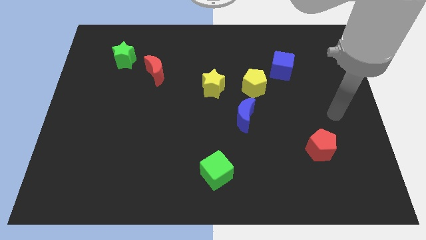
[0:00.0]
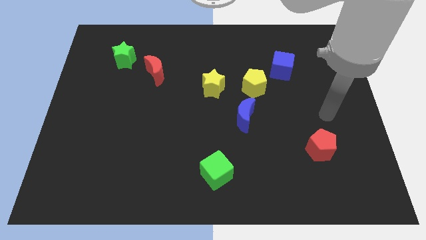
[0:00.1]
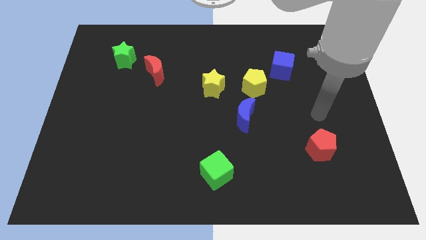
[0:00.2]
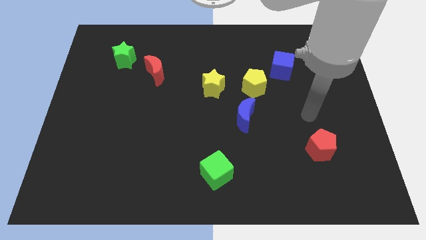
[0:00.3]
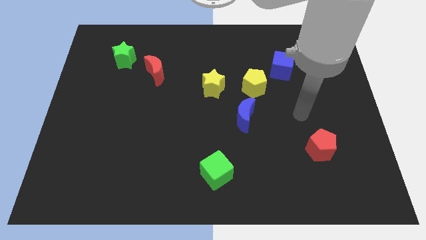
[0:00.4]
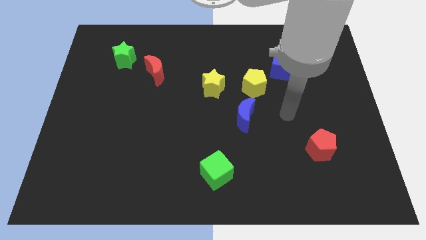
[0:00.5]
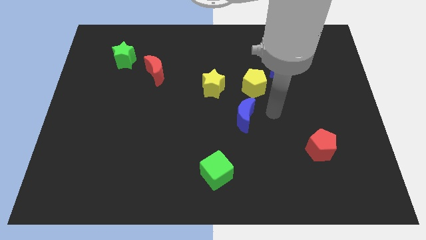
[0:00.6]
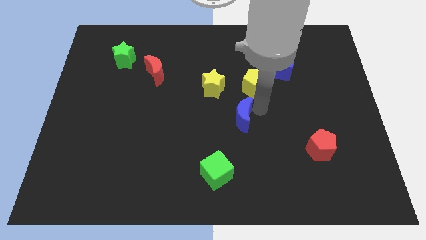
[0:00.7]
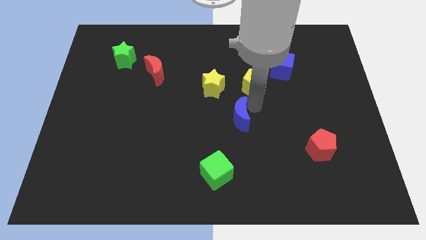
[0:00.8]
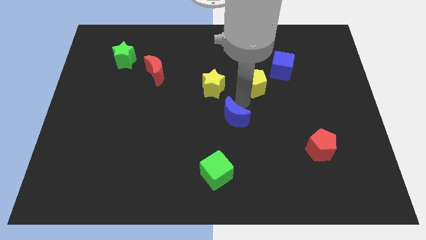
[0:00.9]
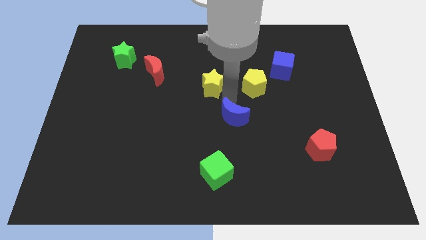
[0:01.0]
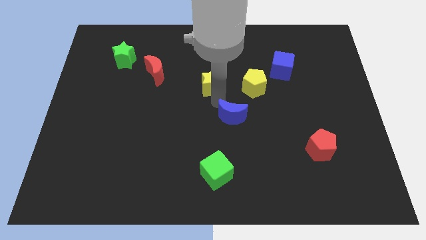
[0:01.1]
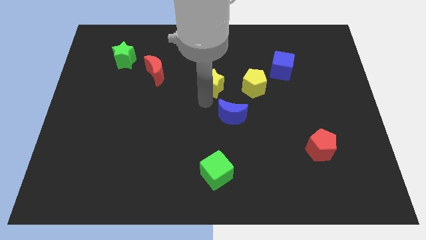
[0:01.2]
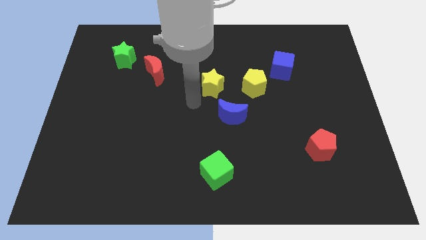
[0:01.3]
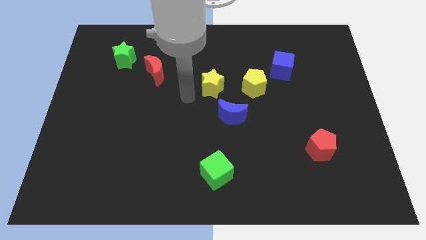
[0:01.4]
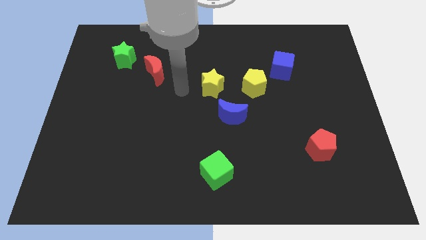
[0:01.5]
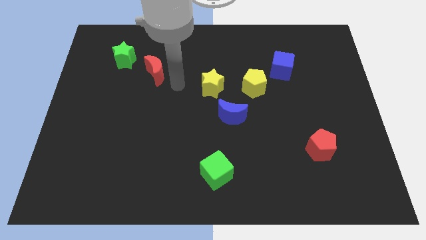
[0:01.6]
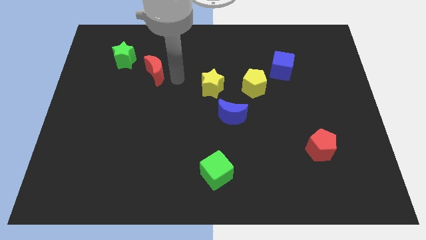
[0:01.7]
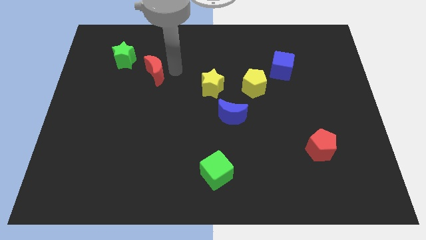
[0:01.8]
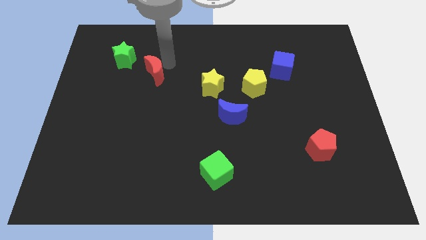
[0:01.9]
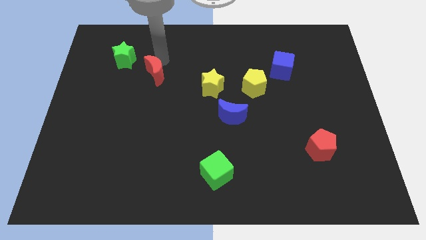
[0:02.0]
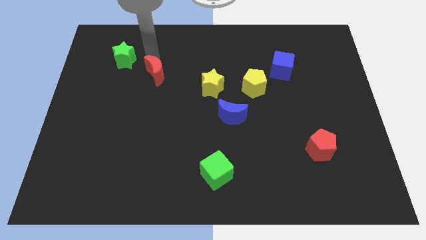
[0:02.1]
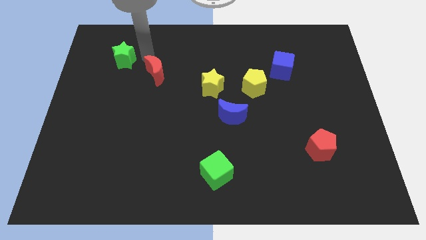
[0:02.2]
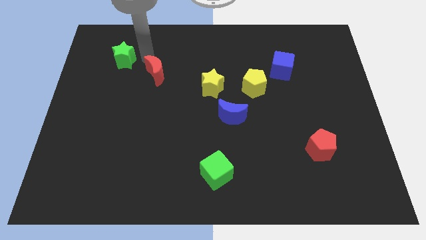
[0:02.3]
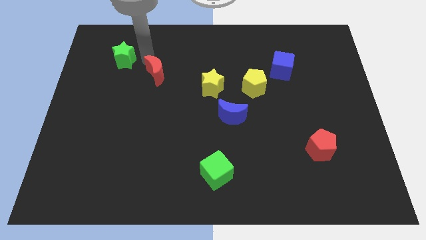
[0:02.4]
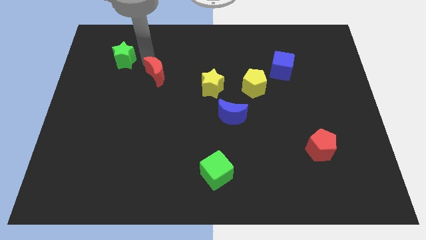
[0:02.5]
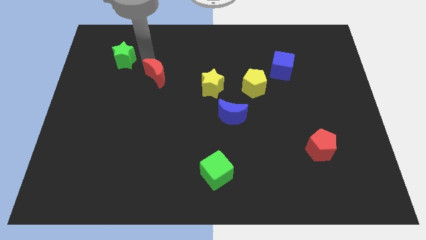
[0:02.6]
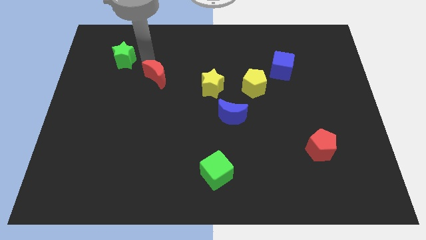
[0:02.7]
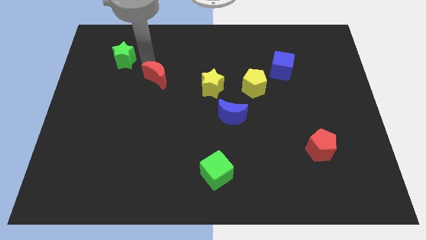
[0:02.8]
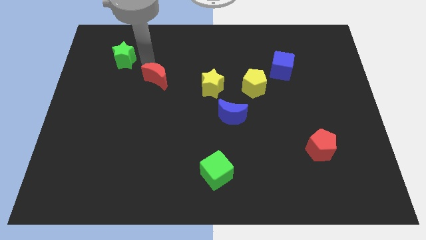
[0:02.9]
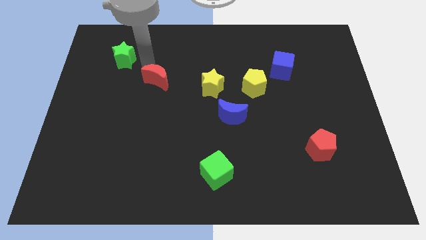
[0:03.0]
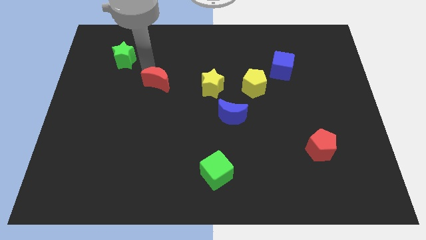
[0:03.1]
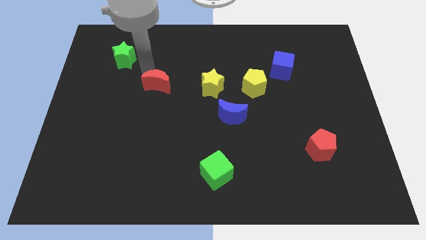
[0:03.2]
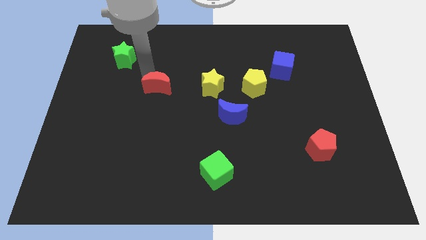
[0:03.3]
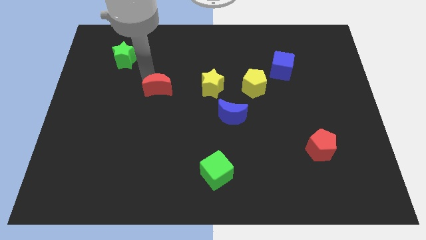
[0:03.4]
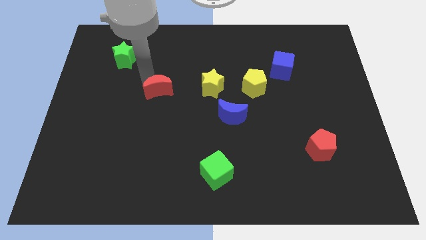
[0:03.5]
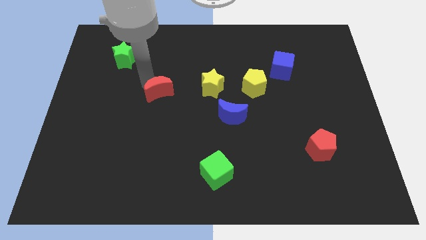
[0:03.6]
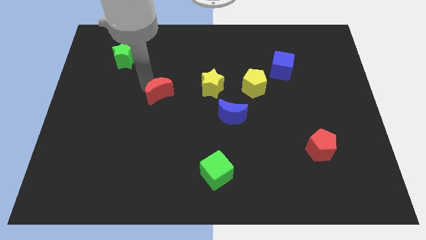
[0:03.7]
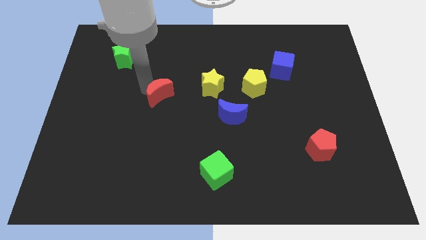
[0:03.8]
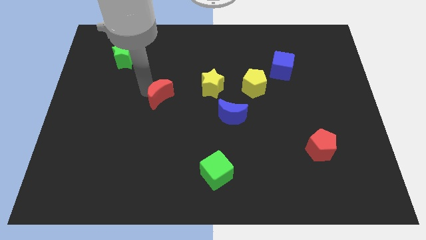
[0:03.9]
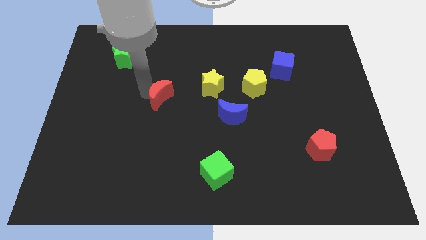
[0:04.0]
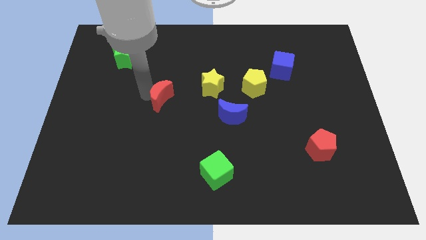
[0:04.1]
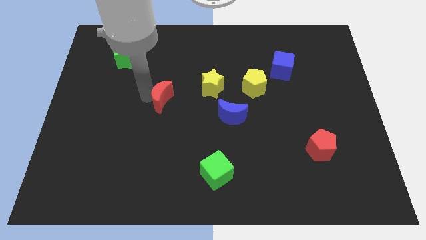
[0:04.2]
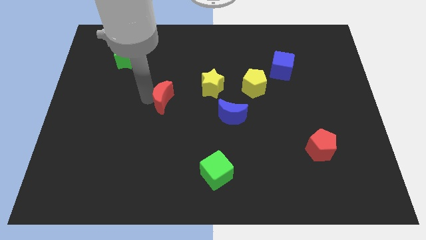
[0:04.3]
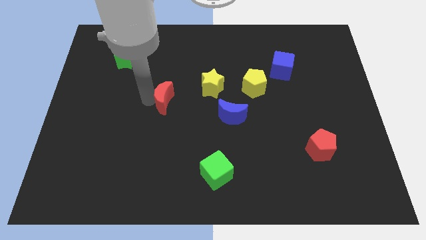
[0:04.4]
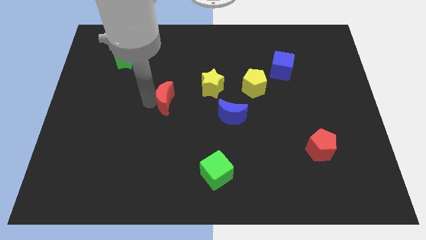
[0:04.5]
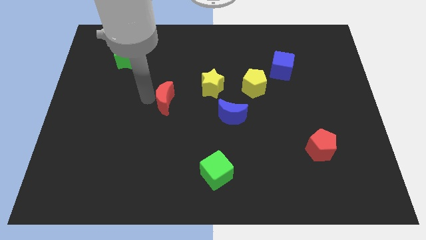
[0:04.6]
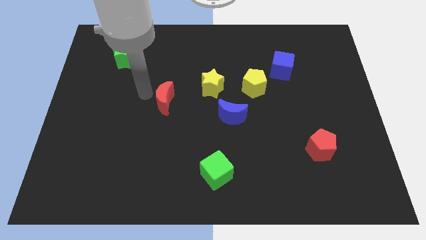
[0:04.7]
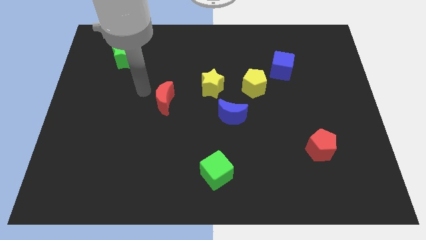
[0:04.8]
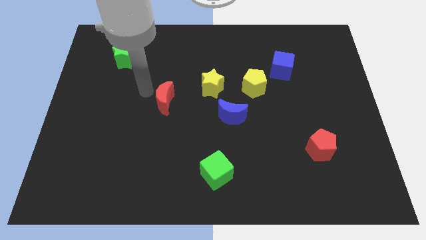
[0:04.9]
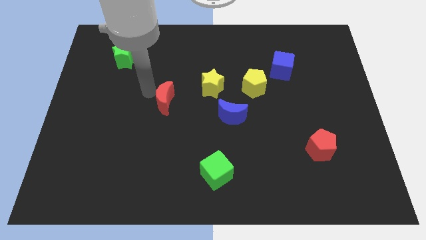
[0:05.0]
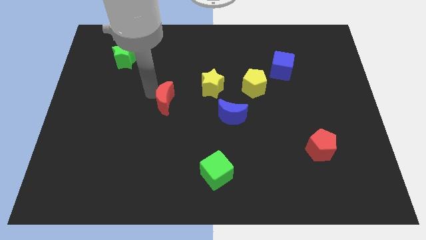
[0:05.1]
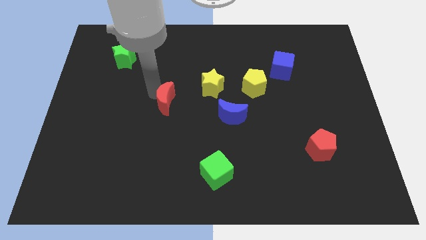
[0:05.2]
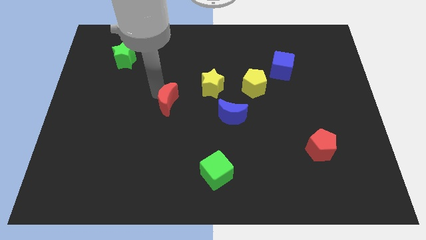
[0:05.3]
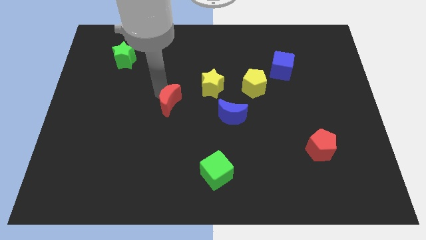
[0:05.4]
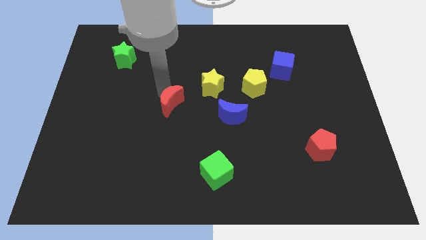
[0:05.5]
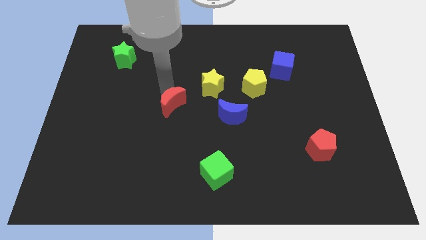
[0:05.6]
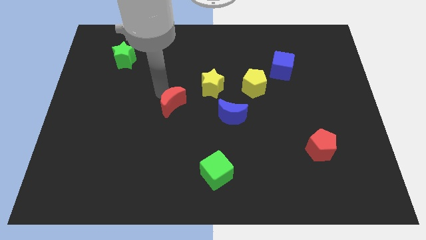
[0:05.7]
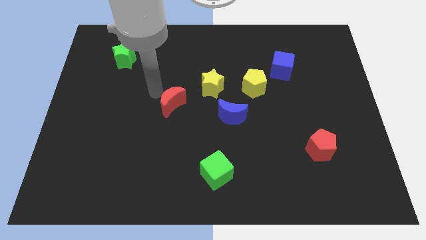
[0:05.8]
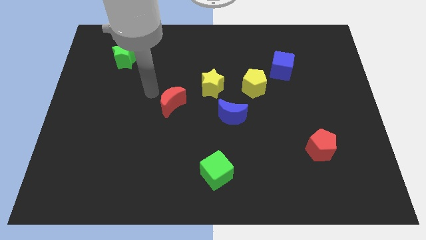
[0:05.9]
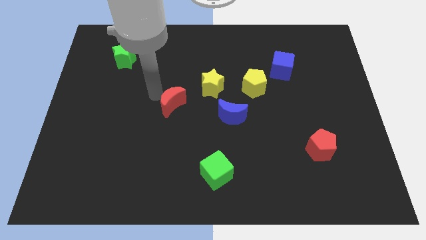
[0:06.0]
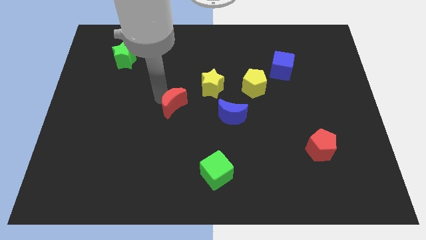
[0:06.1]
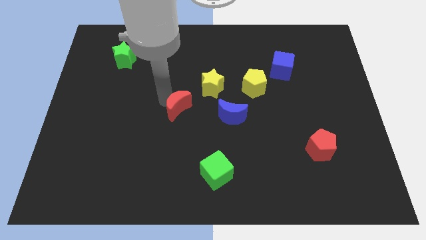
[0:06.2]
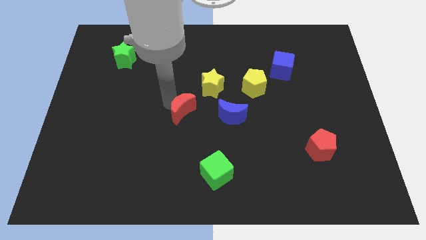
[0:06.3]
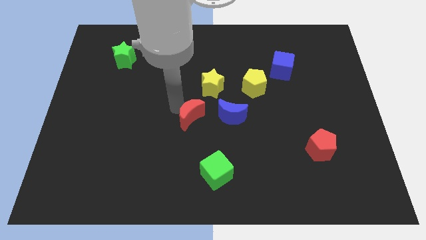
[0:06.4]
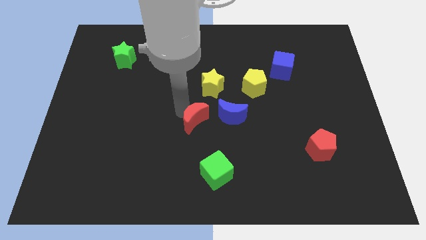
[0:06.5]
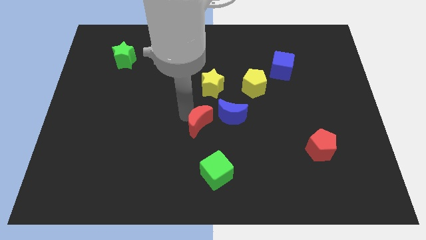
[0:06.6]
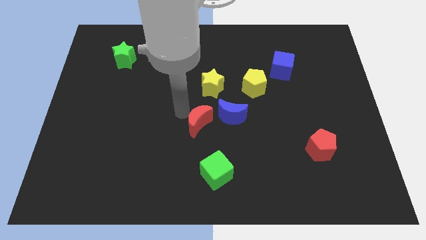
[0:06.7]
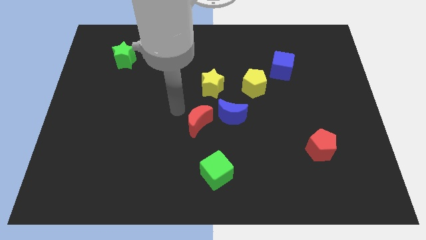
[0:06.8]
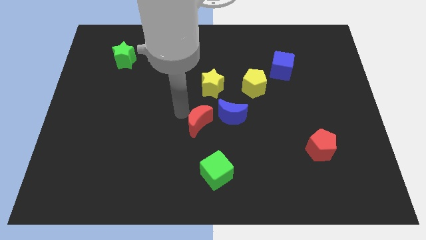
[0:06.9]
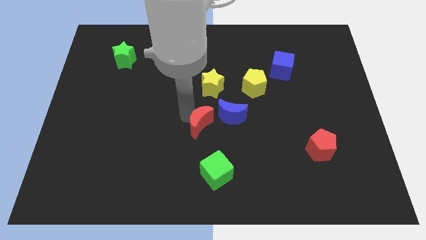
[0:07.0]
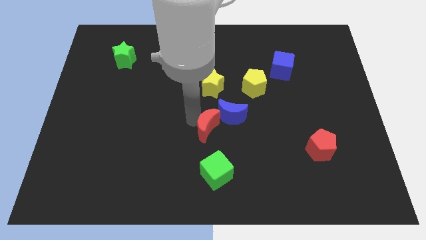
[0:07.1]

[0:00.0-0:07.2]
slide the red moon down and to the right diagonally

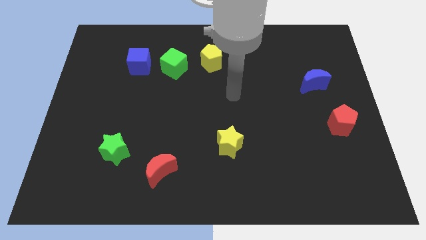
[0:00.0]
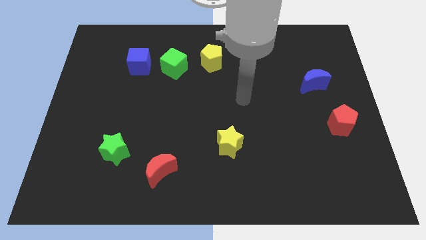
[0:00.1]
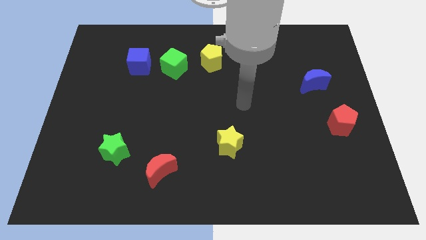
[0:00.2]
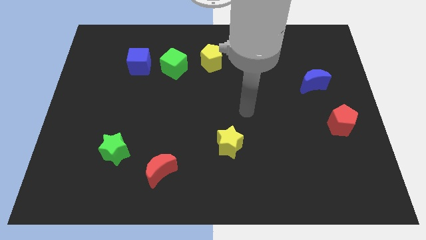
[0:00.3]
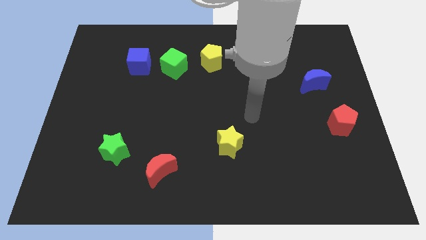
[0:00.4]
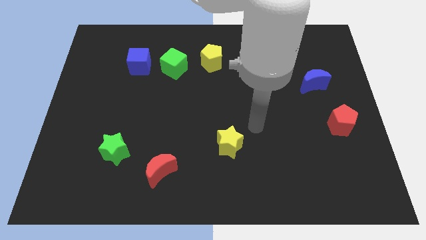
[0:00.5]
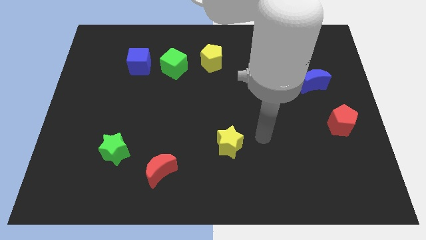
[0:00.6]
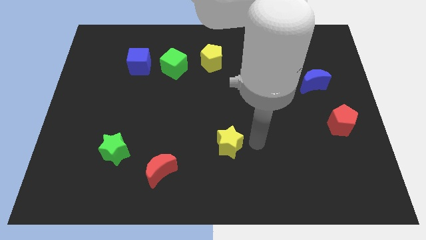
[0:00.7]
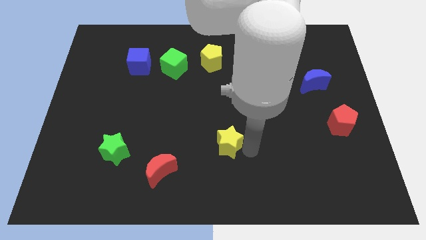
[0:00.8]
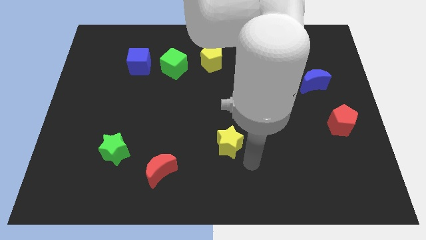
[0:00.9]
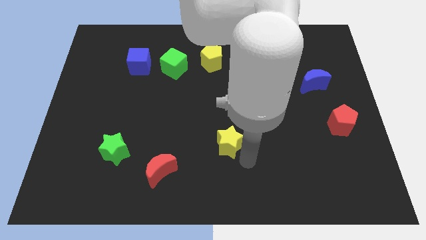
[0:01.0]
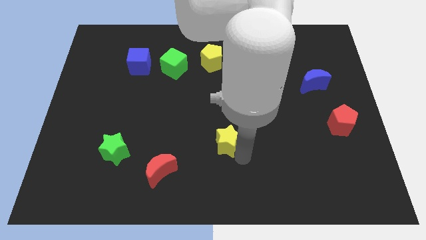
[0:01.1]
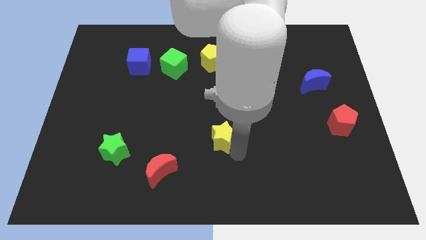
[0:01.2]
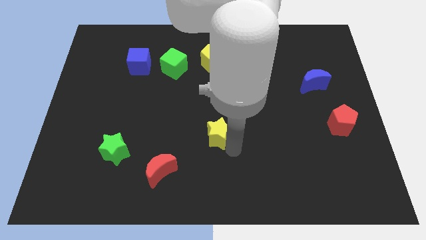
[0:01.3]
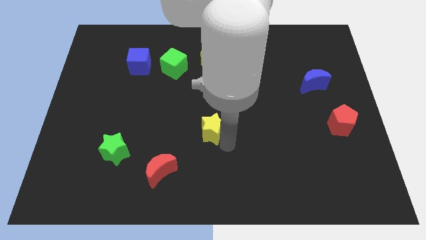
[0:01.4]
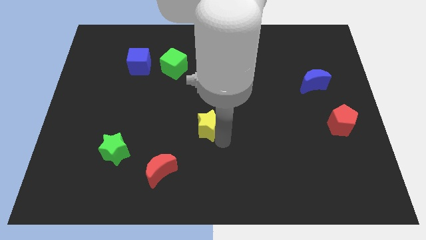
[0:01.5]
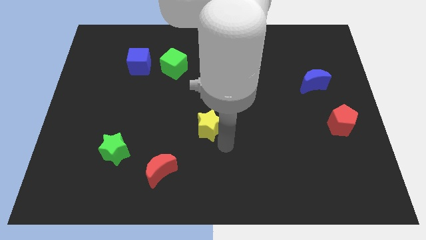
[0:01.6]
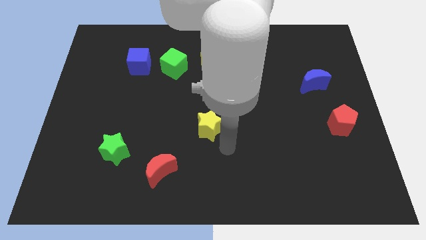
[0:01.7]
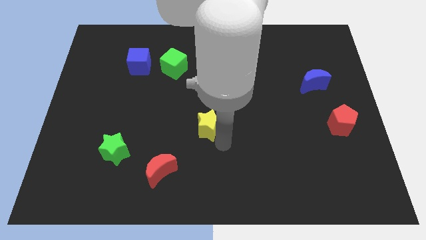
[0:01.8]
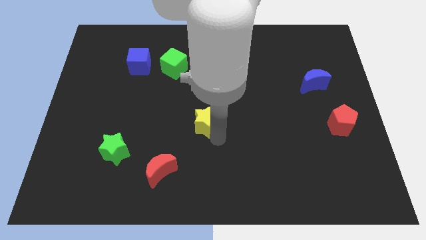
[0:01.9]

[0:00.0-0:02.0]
slightly move the yellow star up and then left
